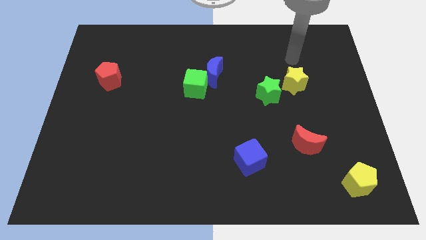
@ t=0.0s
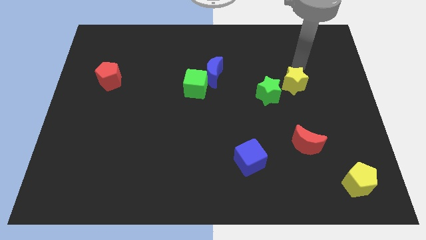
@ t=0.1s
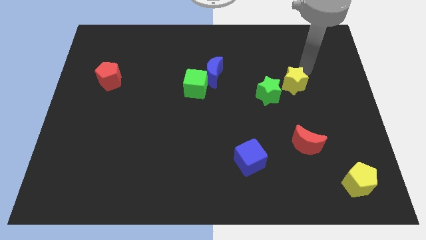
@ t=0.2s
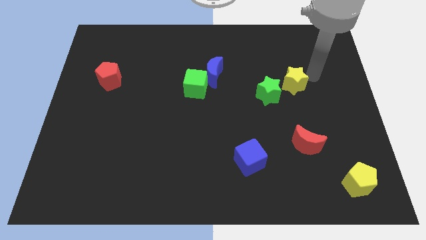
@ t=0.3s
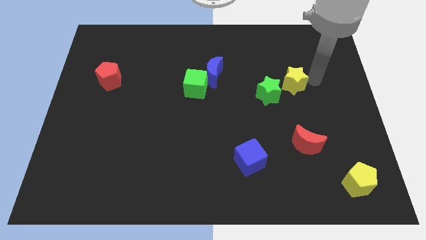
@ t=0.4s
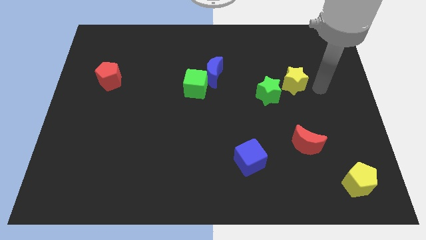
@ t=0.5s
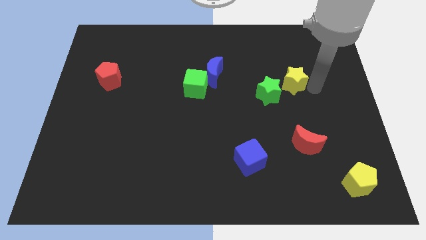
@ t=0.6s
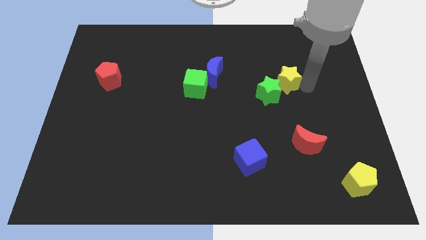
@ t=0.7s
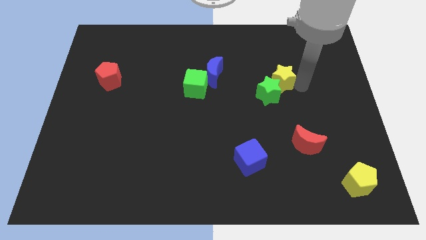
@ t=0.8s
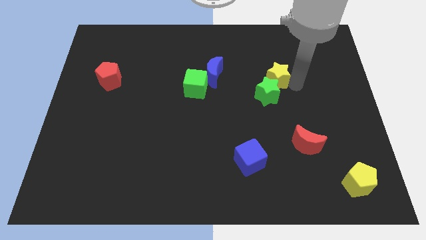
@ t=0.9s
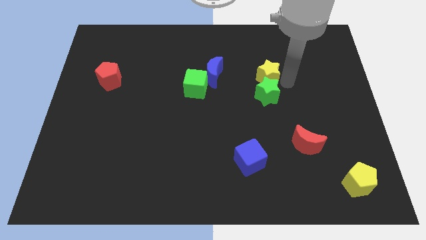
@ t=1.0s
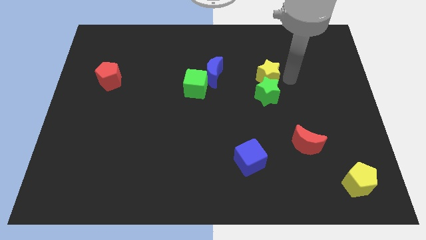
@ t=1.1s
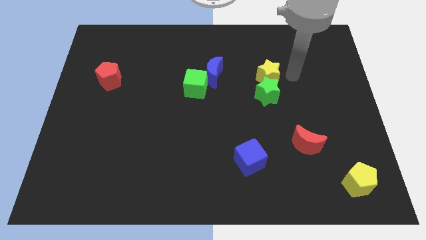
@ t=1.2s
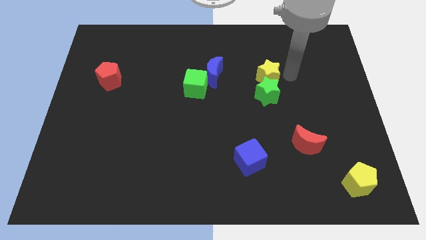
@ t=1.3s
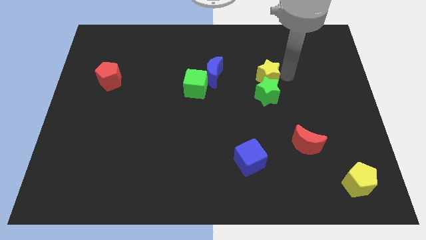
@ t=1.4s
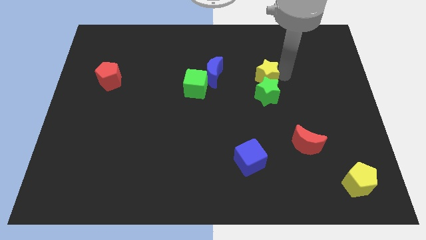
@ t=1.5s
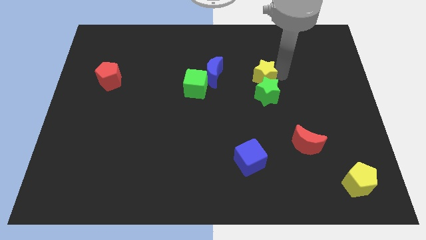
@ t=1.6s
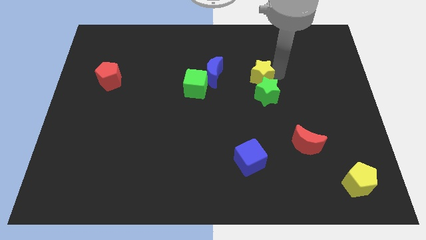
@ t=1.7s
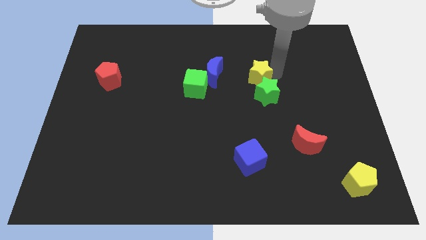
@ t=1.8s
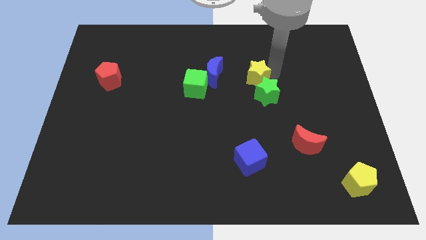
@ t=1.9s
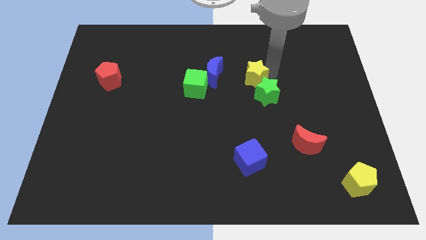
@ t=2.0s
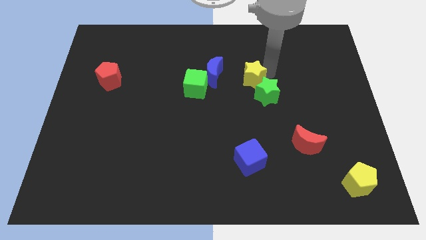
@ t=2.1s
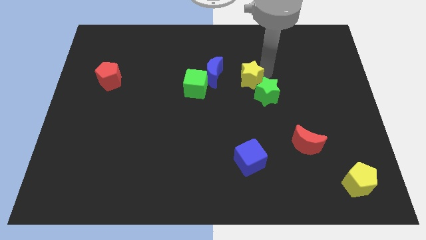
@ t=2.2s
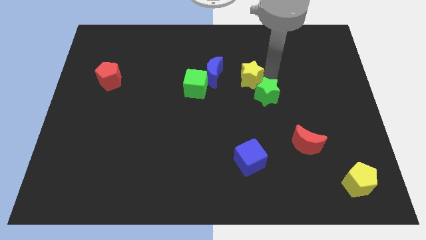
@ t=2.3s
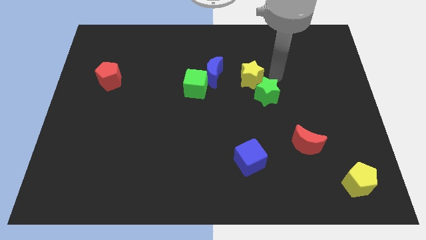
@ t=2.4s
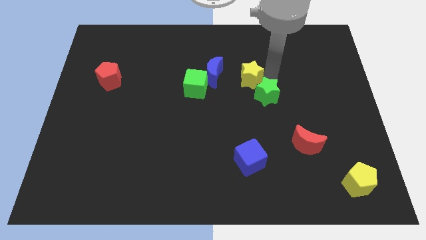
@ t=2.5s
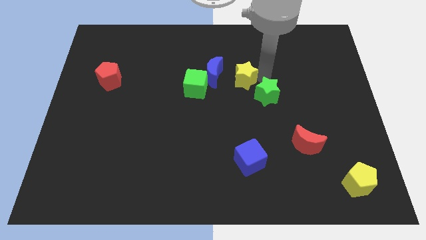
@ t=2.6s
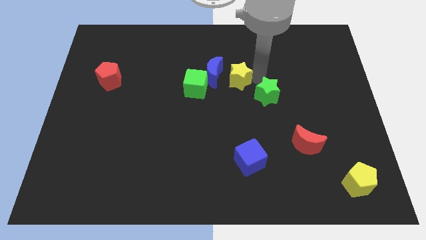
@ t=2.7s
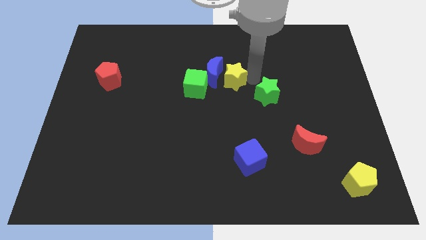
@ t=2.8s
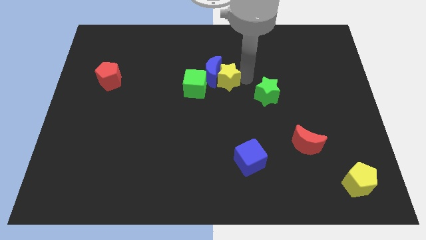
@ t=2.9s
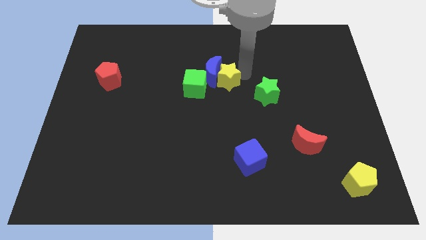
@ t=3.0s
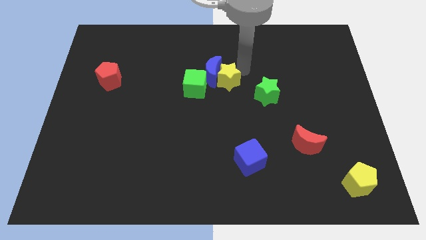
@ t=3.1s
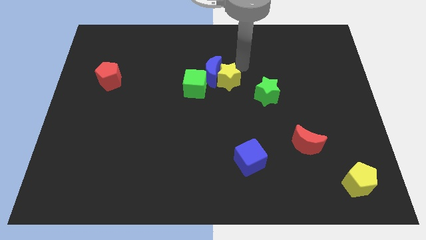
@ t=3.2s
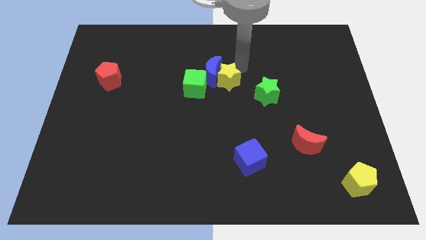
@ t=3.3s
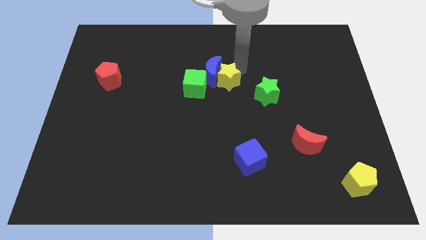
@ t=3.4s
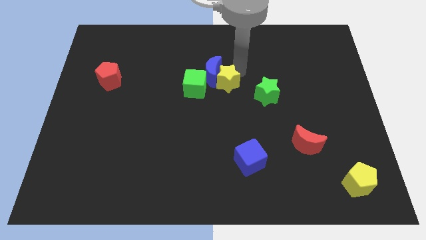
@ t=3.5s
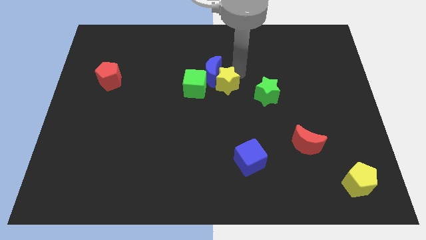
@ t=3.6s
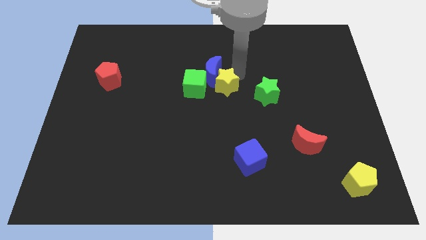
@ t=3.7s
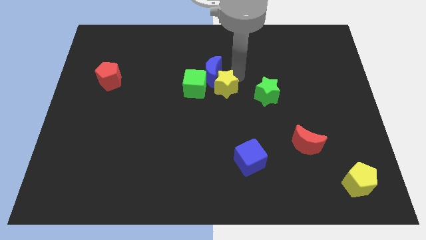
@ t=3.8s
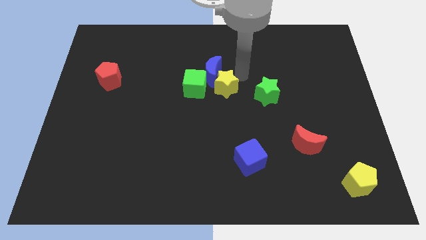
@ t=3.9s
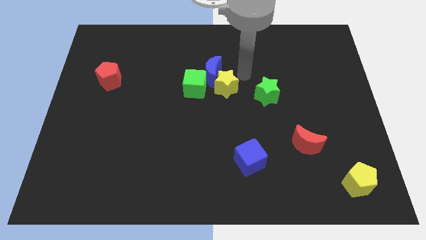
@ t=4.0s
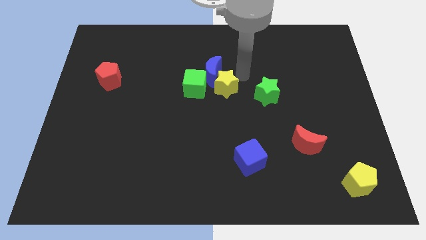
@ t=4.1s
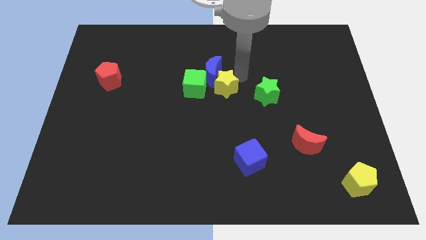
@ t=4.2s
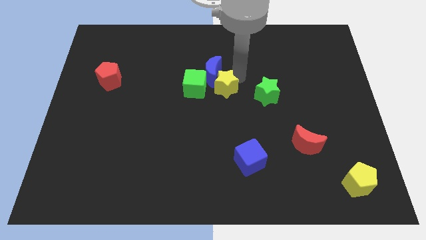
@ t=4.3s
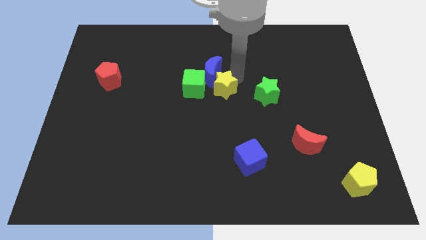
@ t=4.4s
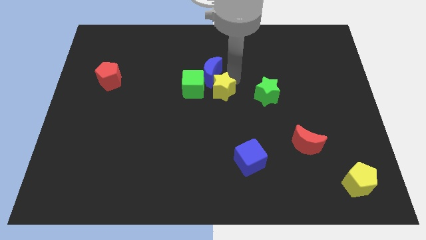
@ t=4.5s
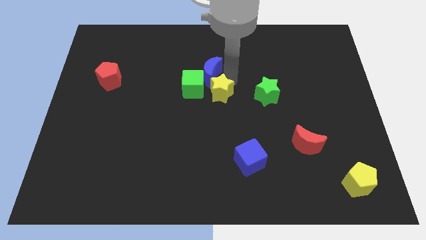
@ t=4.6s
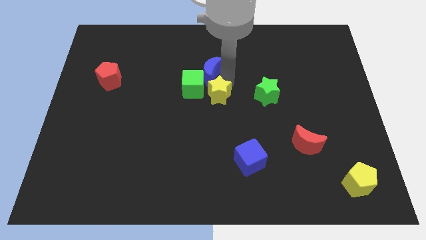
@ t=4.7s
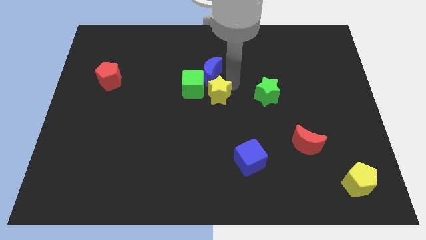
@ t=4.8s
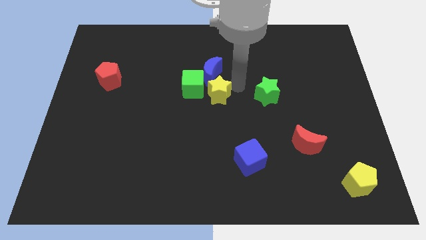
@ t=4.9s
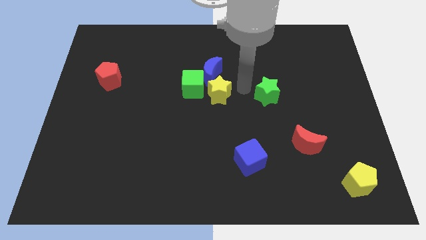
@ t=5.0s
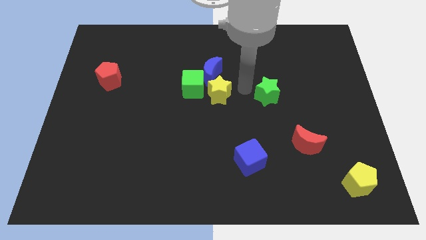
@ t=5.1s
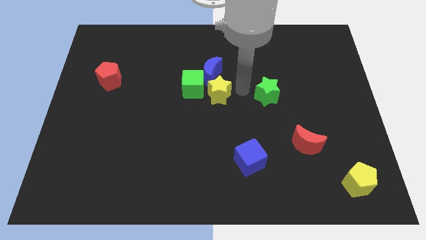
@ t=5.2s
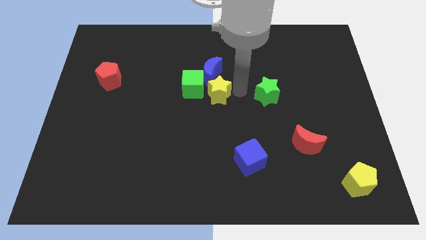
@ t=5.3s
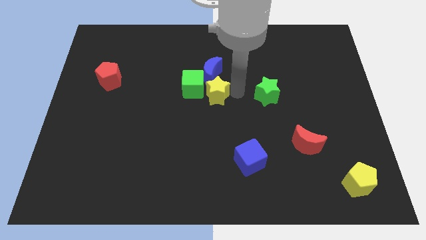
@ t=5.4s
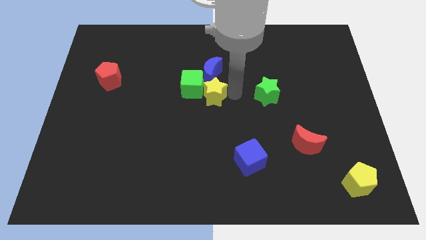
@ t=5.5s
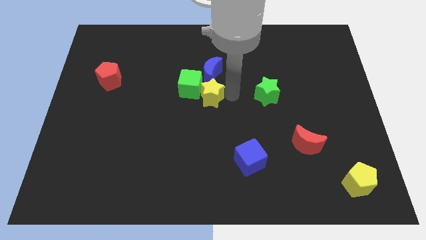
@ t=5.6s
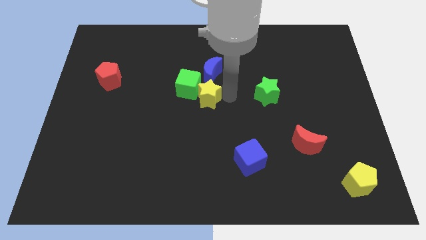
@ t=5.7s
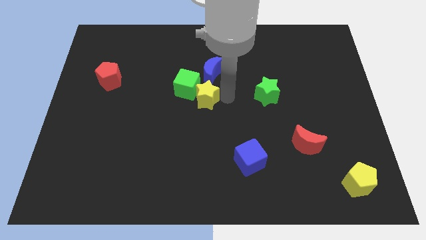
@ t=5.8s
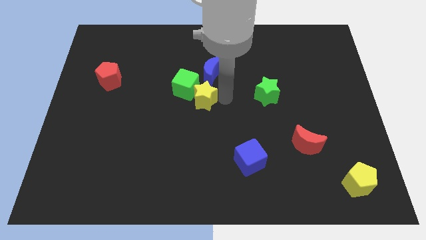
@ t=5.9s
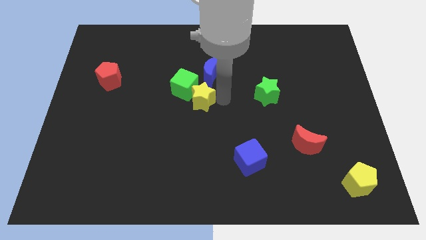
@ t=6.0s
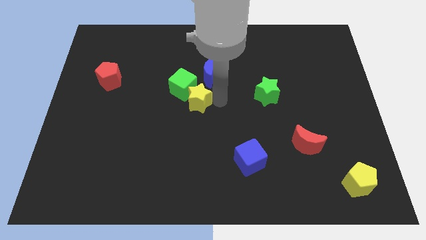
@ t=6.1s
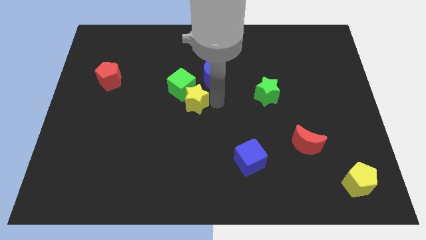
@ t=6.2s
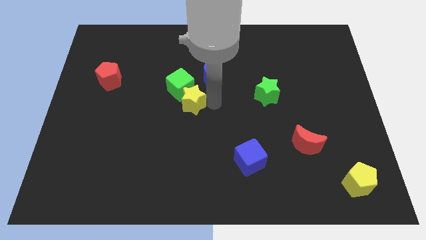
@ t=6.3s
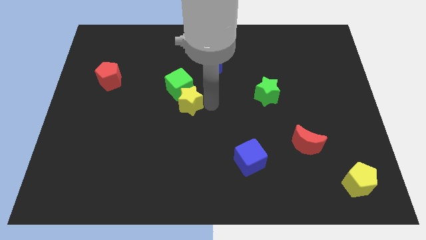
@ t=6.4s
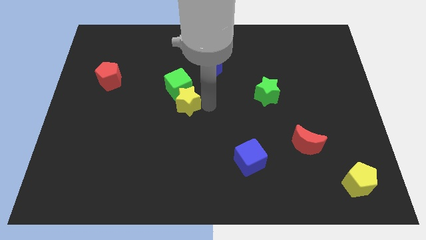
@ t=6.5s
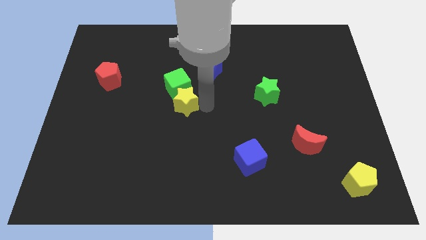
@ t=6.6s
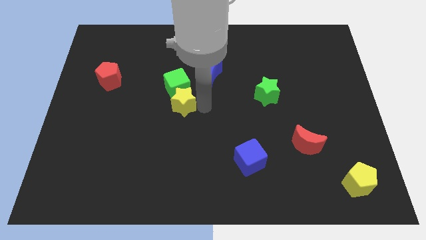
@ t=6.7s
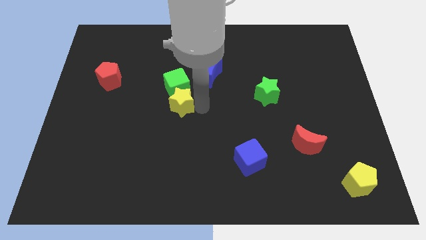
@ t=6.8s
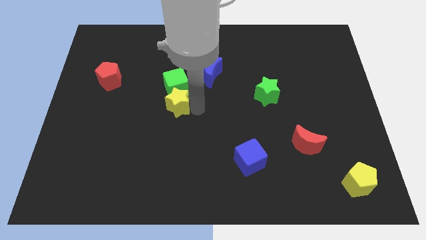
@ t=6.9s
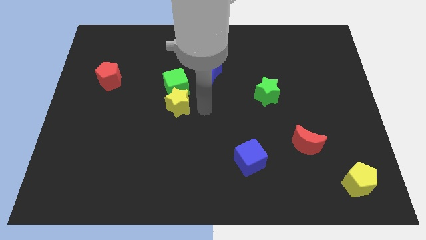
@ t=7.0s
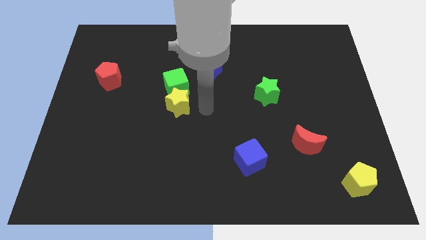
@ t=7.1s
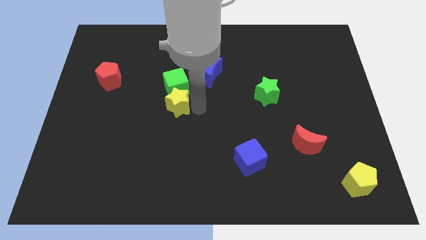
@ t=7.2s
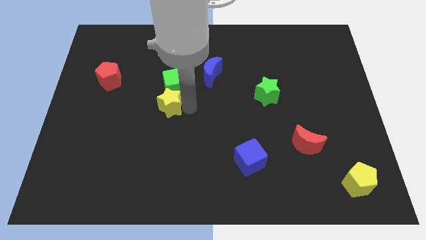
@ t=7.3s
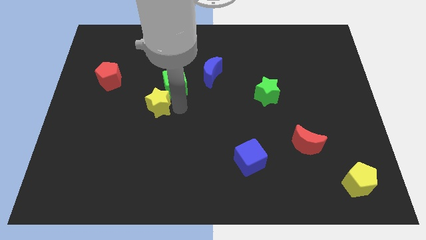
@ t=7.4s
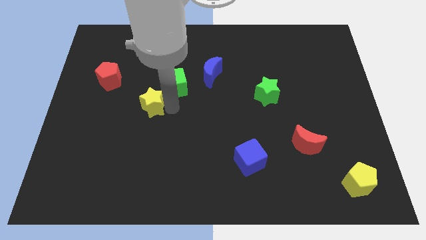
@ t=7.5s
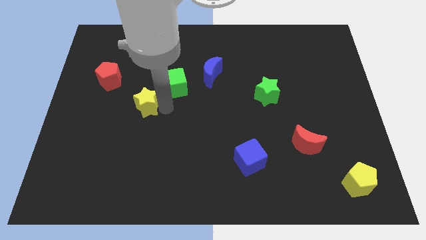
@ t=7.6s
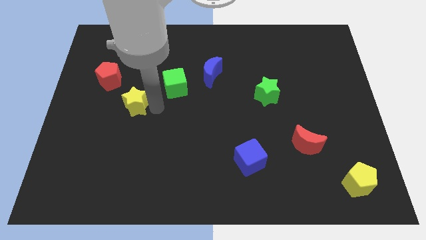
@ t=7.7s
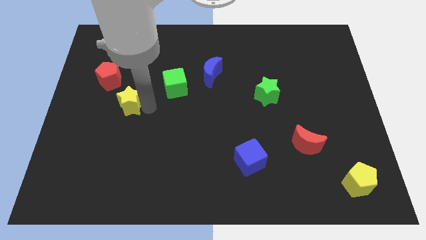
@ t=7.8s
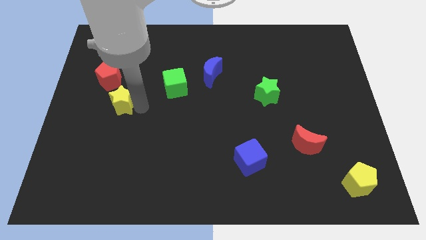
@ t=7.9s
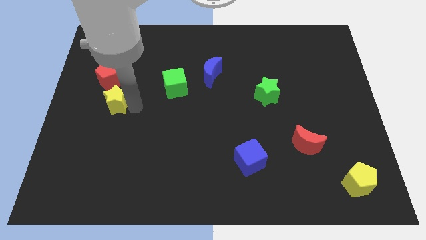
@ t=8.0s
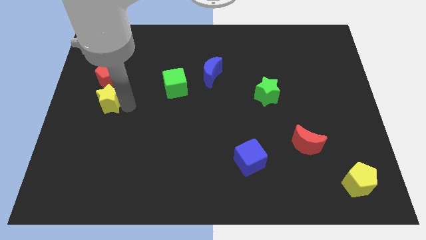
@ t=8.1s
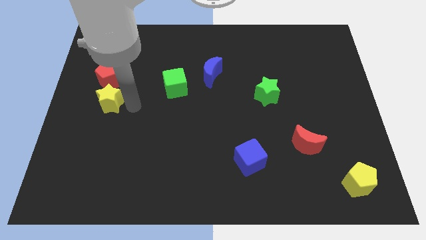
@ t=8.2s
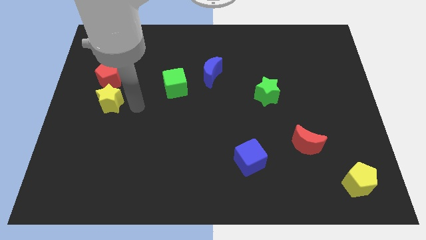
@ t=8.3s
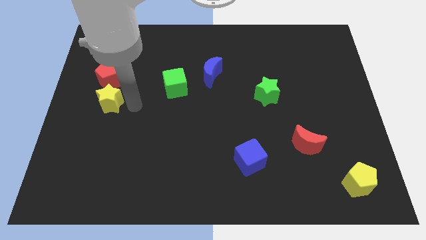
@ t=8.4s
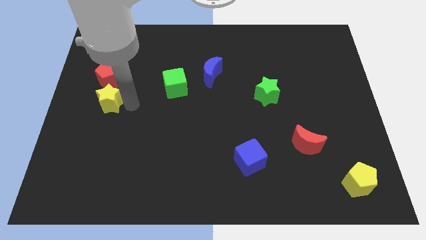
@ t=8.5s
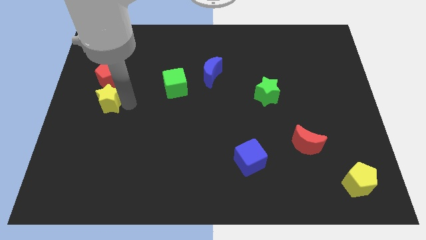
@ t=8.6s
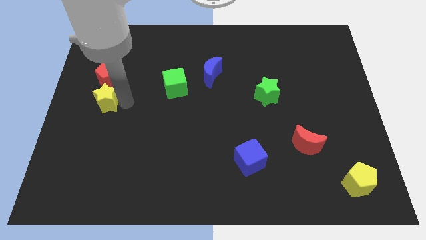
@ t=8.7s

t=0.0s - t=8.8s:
slide the yellow star to the left side
